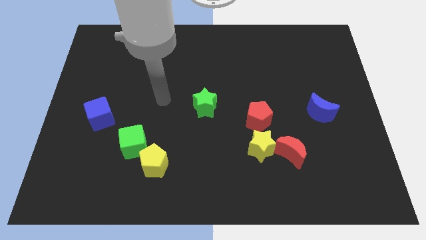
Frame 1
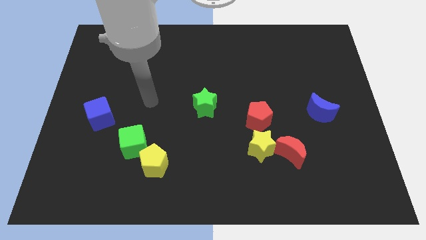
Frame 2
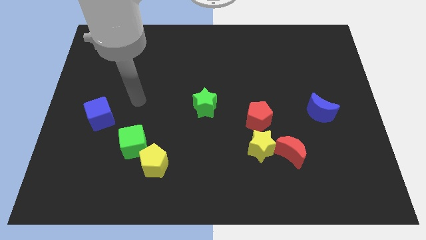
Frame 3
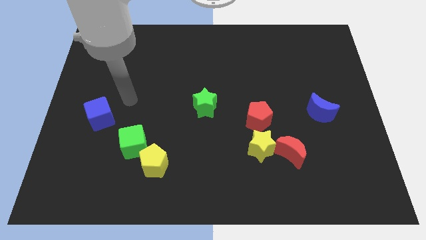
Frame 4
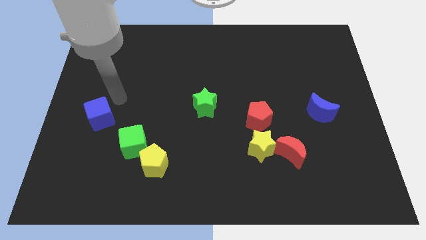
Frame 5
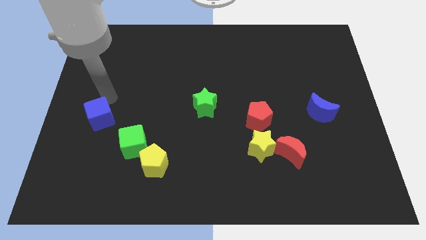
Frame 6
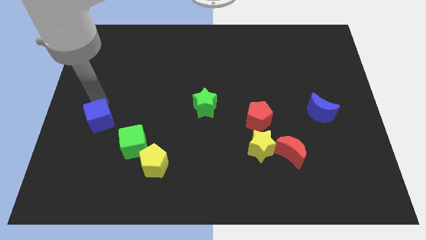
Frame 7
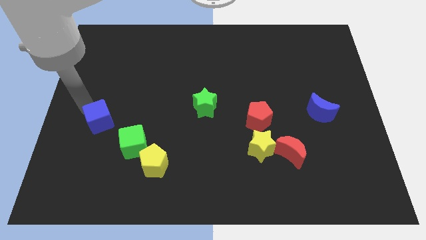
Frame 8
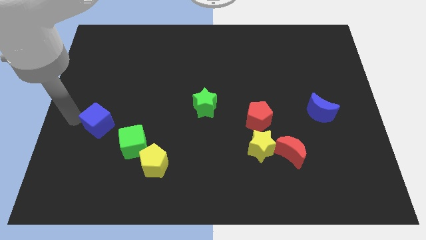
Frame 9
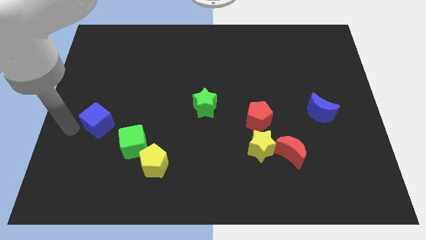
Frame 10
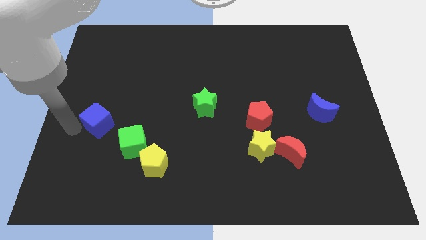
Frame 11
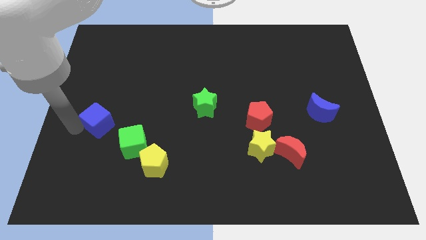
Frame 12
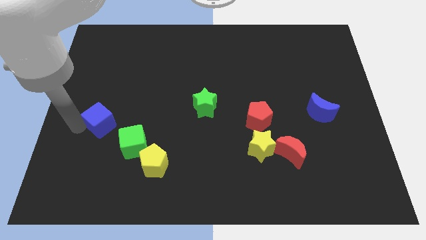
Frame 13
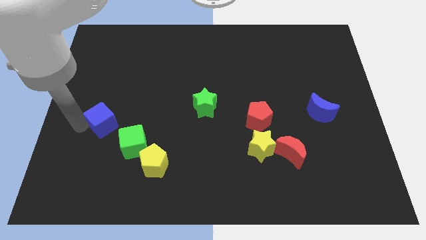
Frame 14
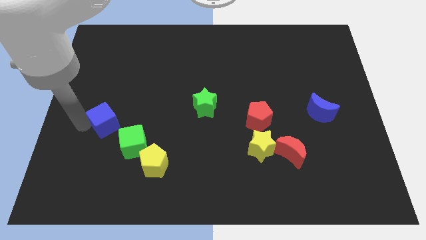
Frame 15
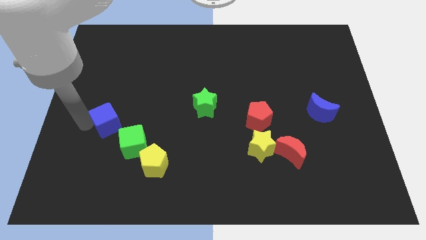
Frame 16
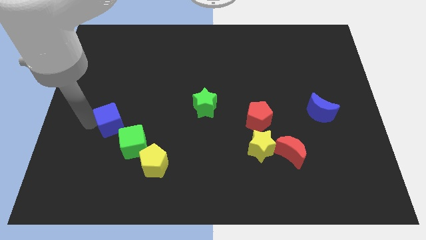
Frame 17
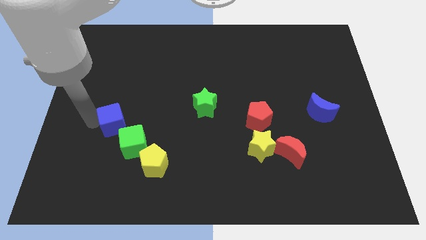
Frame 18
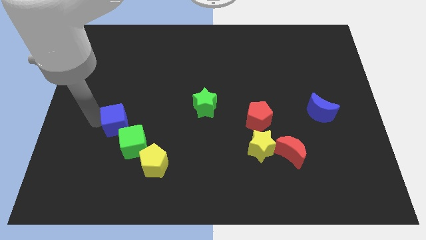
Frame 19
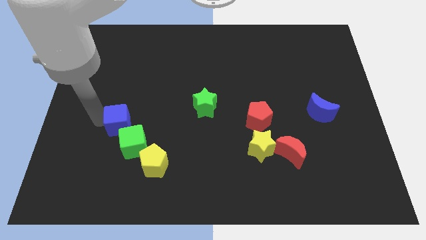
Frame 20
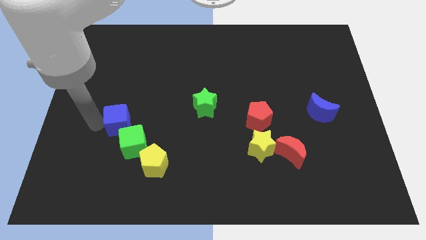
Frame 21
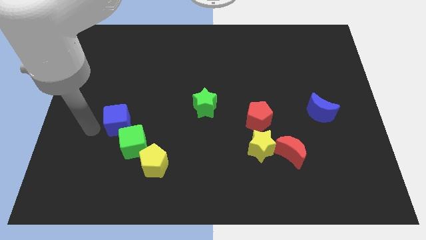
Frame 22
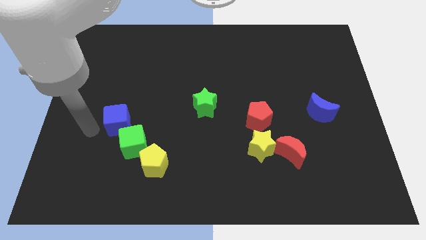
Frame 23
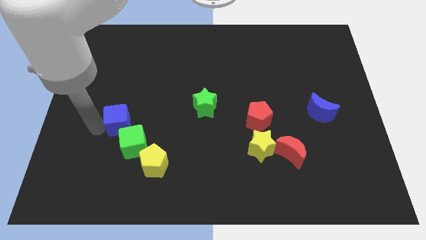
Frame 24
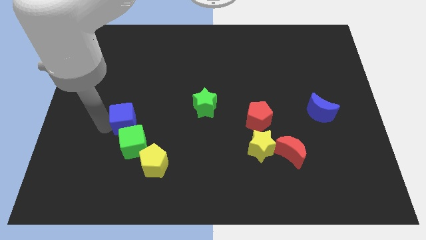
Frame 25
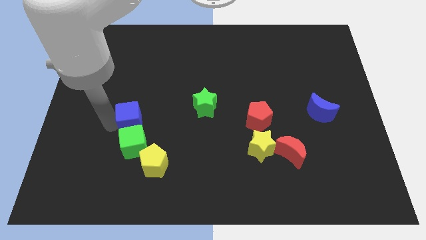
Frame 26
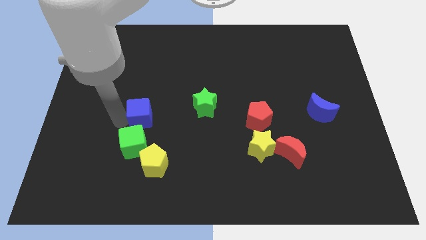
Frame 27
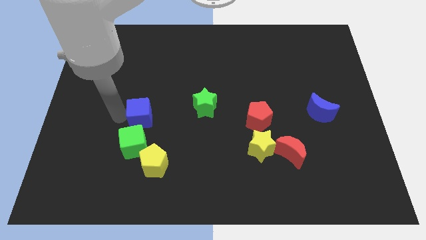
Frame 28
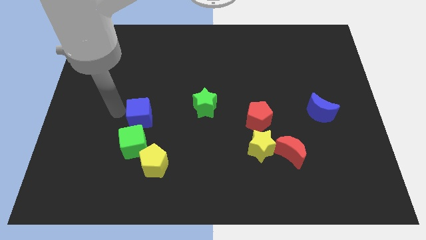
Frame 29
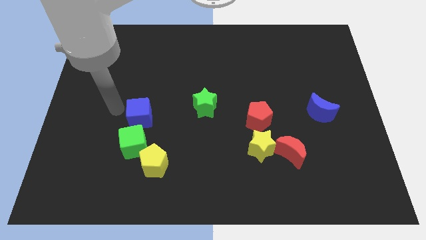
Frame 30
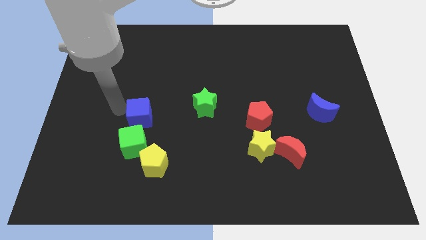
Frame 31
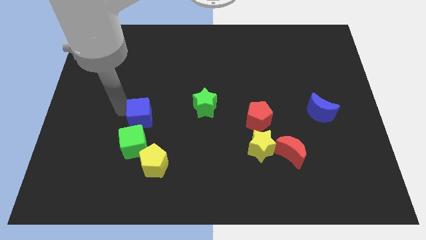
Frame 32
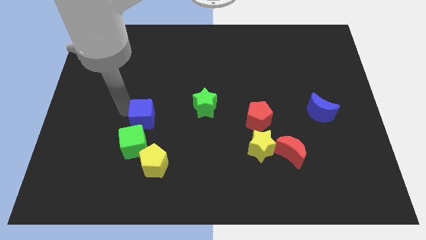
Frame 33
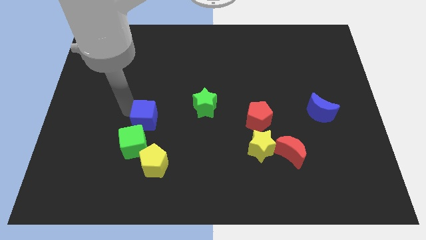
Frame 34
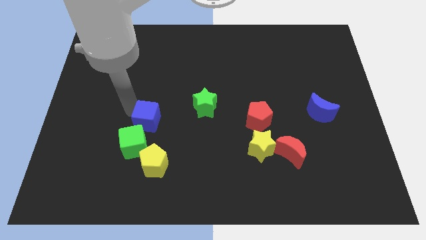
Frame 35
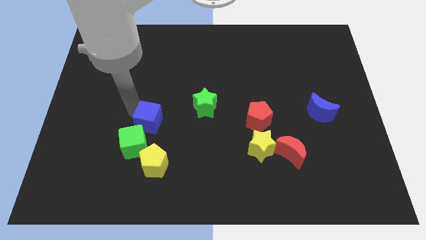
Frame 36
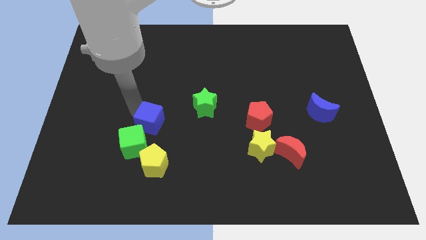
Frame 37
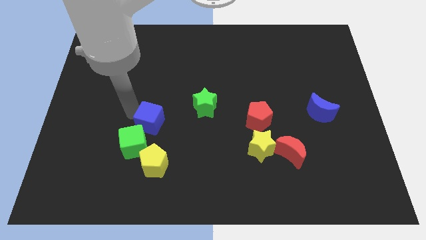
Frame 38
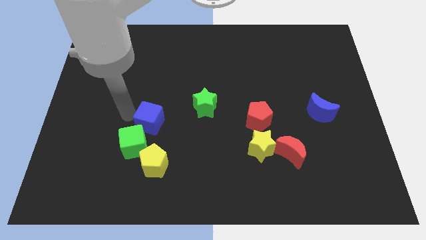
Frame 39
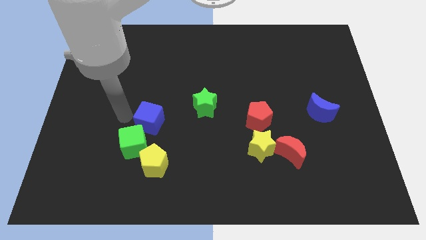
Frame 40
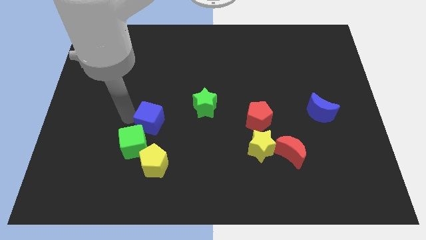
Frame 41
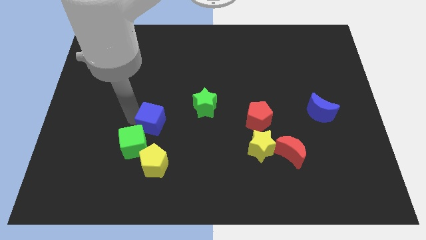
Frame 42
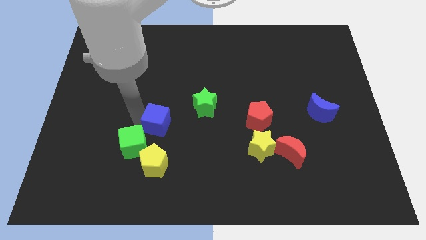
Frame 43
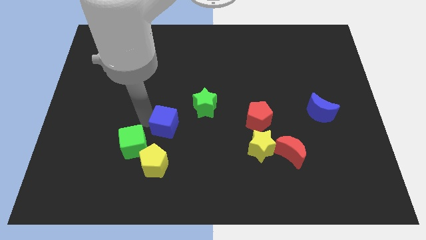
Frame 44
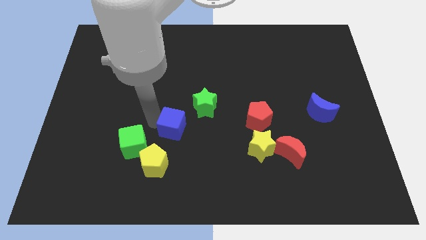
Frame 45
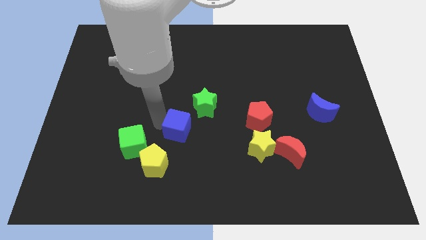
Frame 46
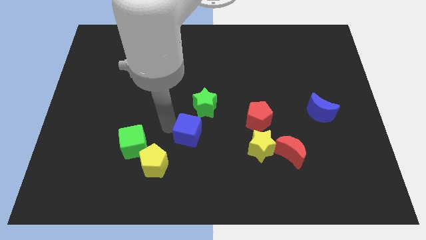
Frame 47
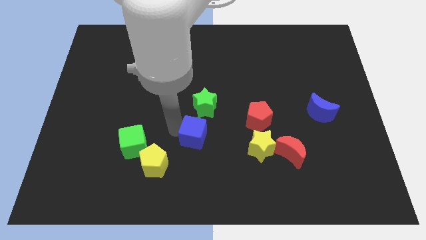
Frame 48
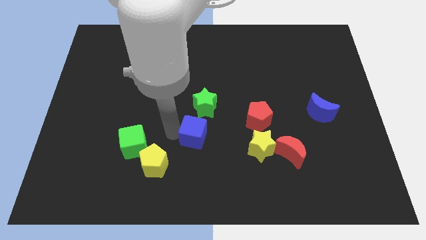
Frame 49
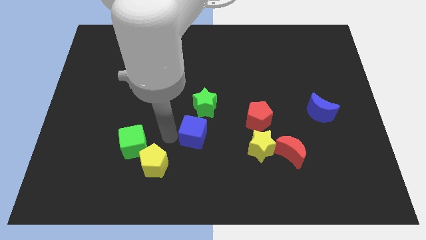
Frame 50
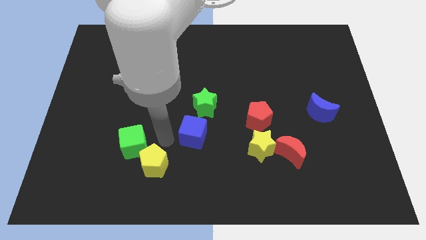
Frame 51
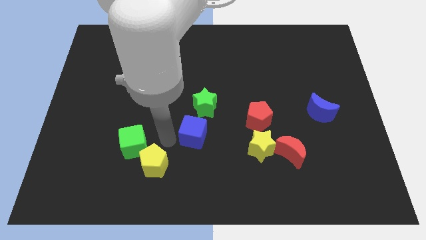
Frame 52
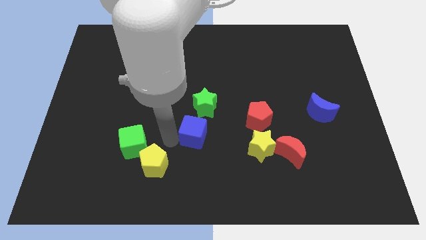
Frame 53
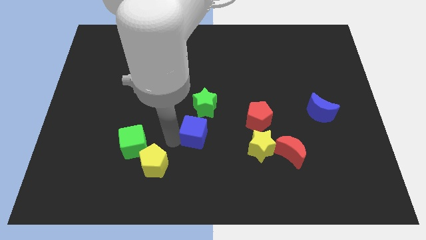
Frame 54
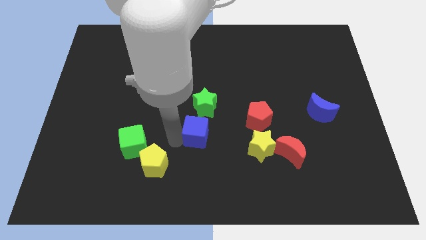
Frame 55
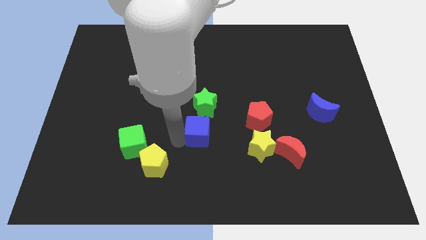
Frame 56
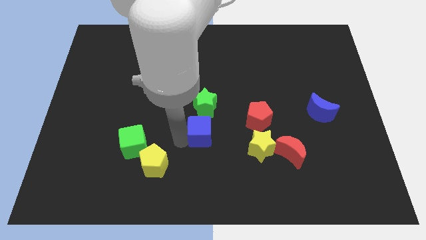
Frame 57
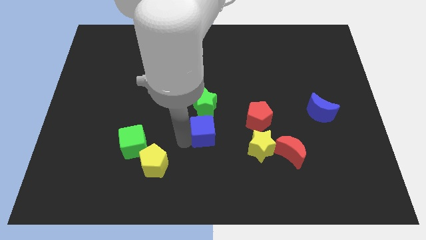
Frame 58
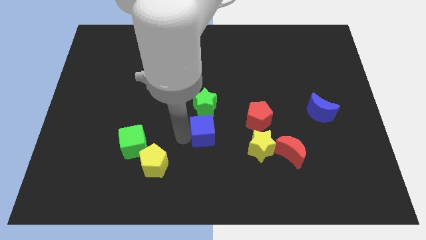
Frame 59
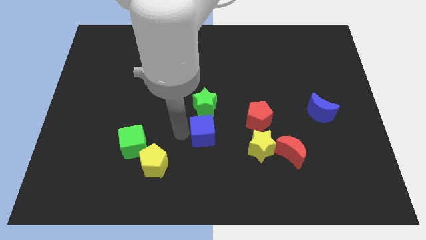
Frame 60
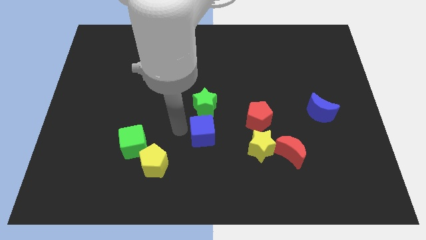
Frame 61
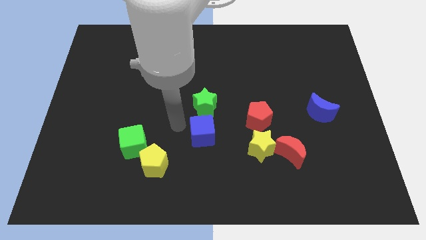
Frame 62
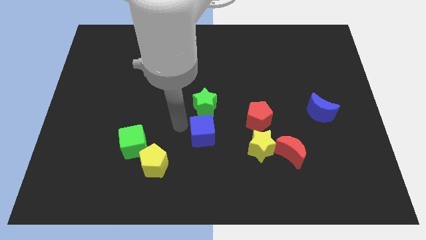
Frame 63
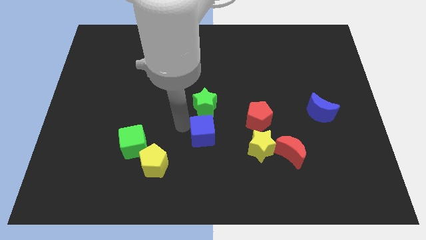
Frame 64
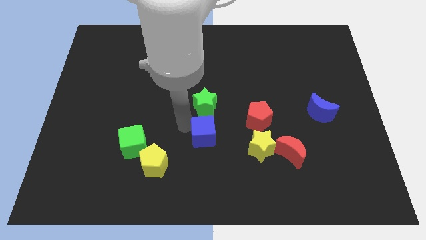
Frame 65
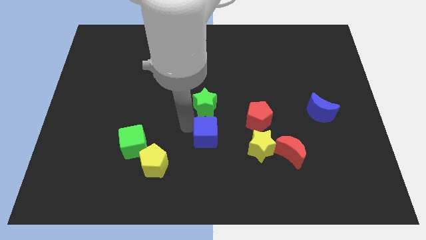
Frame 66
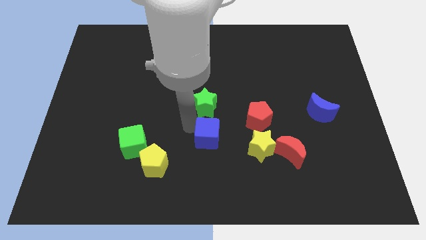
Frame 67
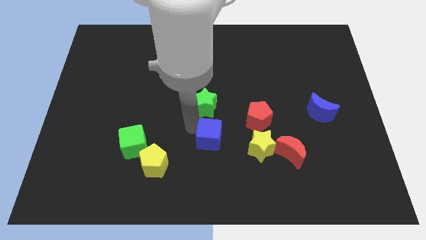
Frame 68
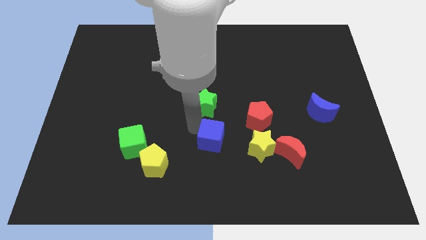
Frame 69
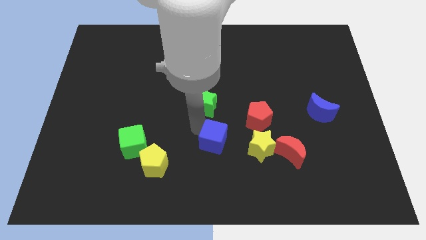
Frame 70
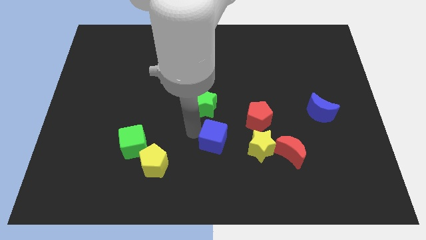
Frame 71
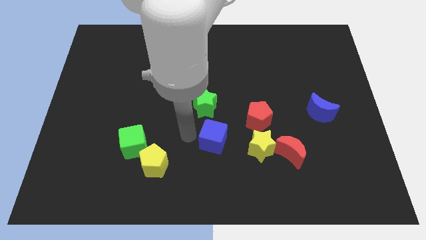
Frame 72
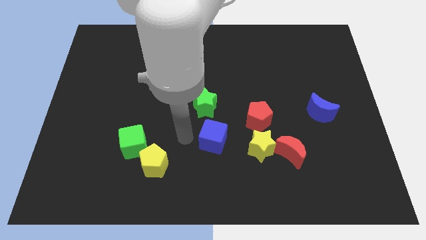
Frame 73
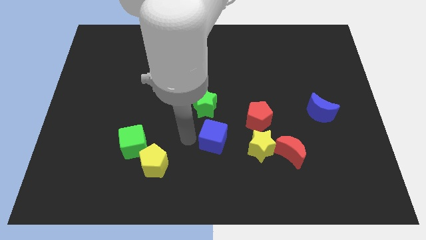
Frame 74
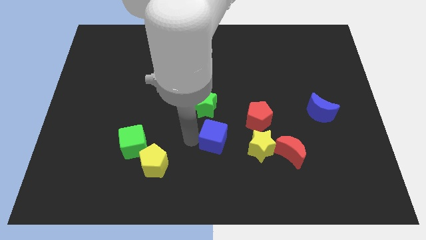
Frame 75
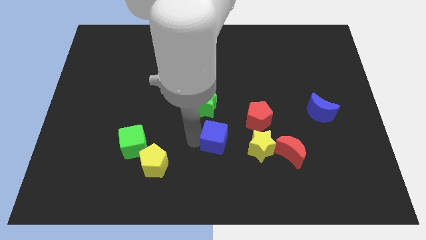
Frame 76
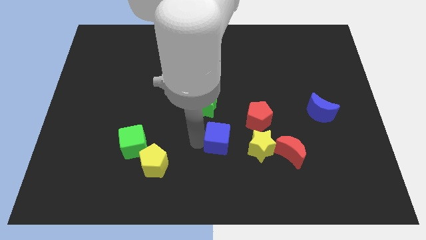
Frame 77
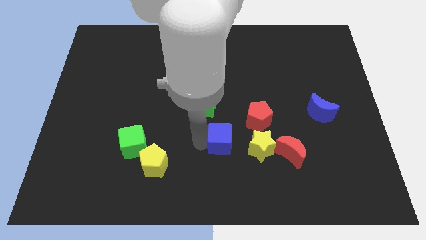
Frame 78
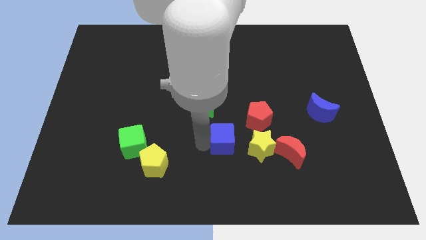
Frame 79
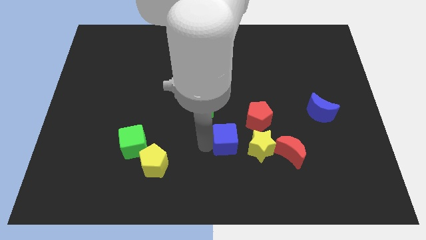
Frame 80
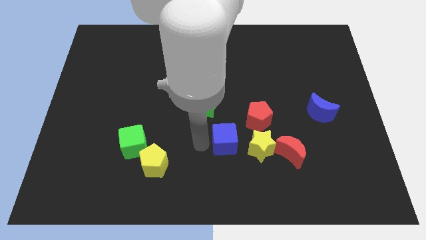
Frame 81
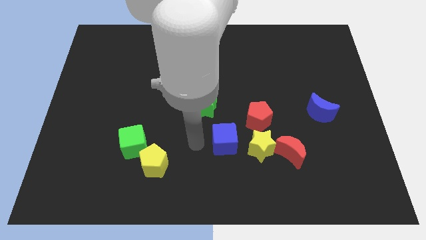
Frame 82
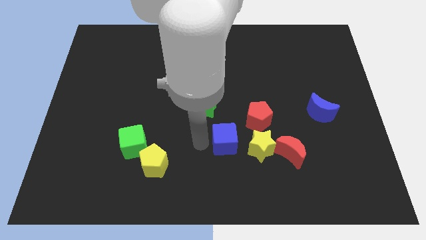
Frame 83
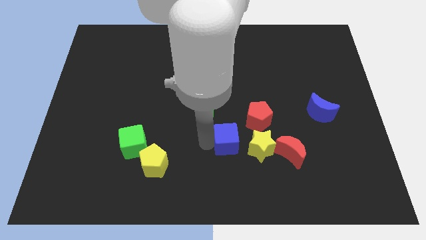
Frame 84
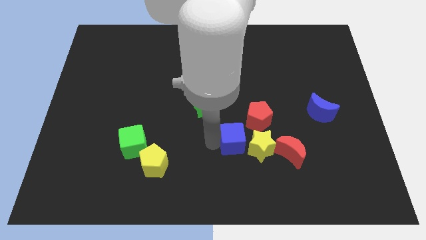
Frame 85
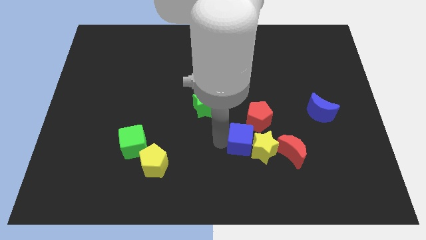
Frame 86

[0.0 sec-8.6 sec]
move the blue cube next to the yellow star
